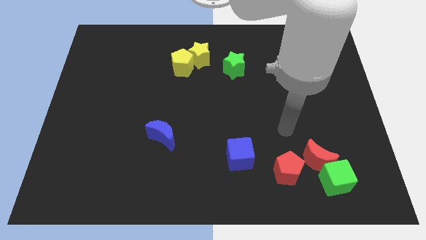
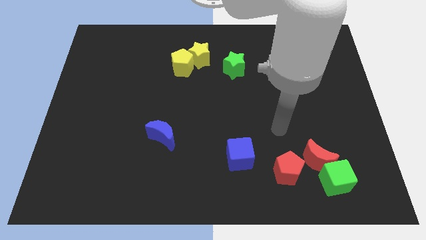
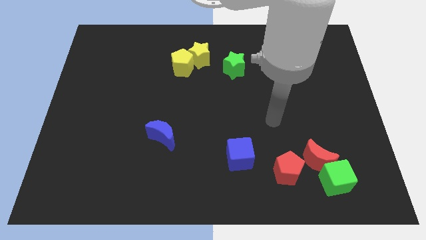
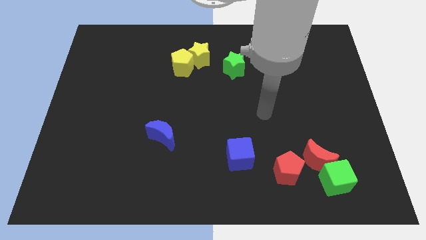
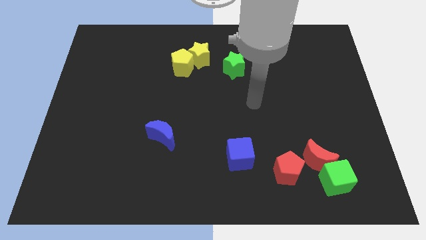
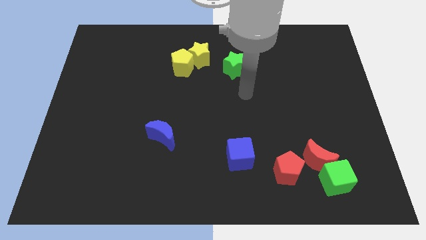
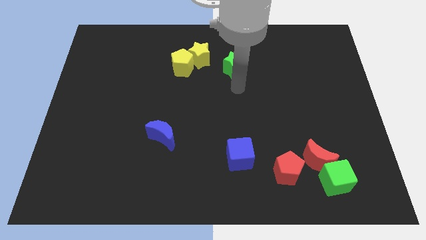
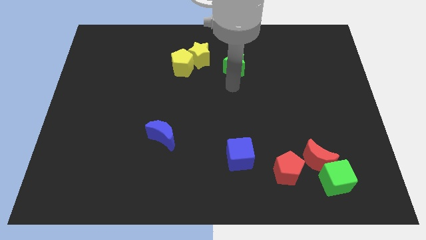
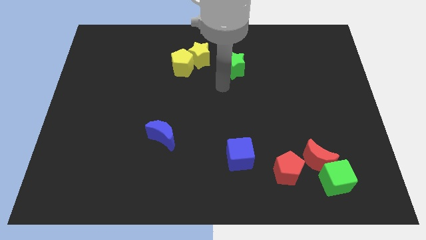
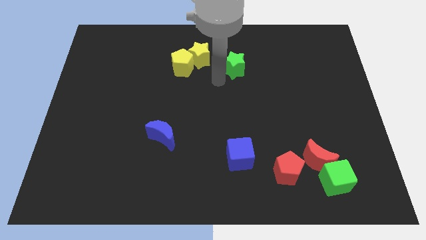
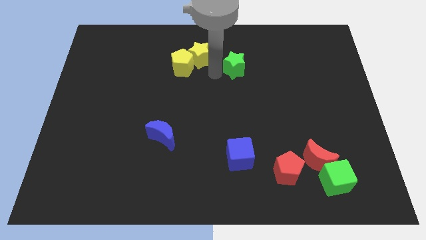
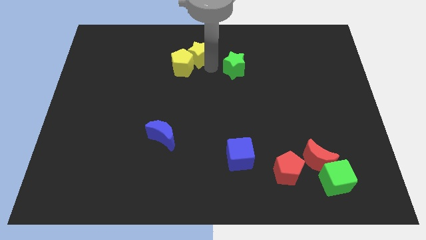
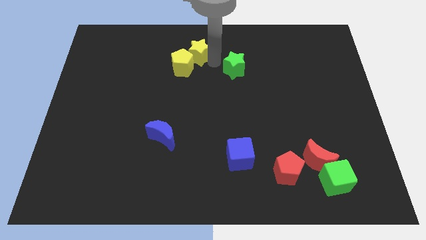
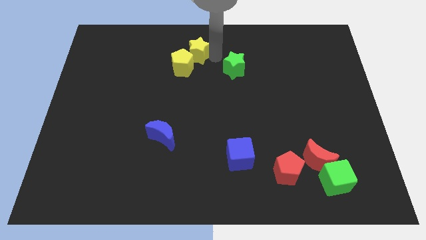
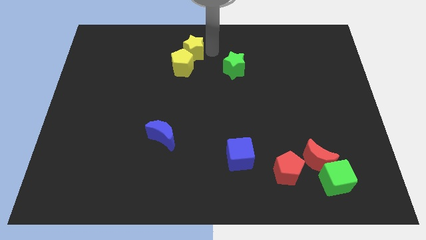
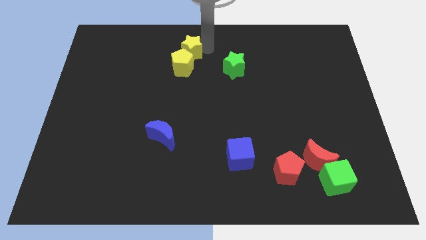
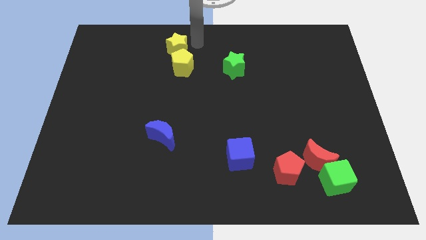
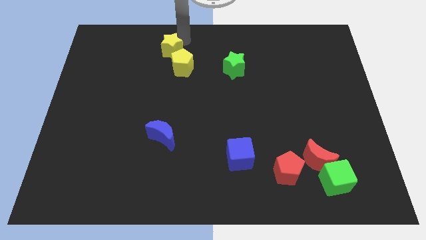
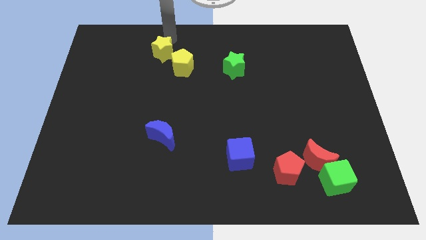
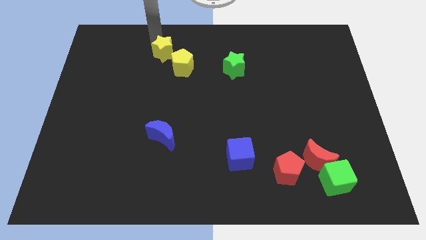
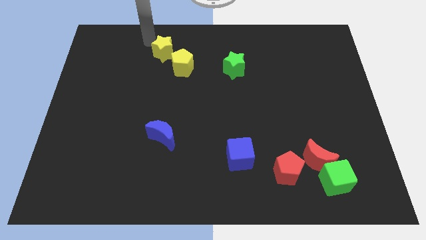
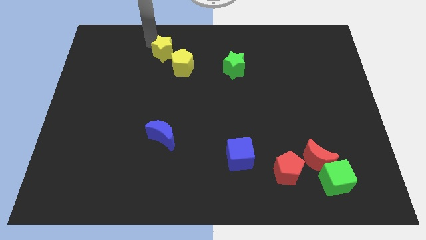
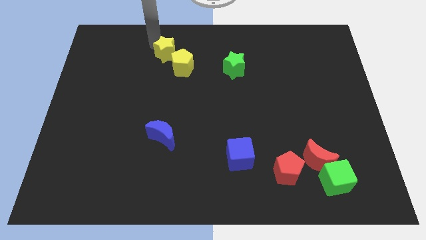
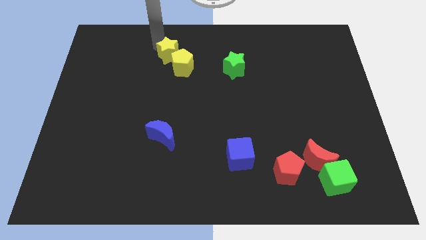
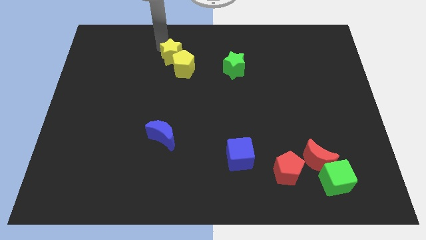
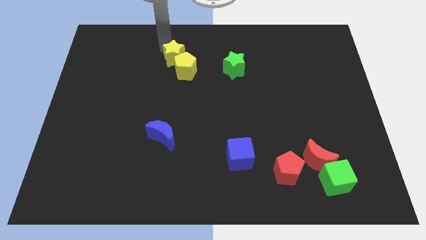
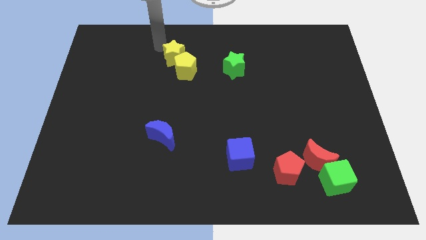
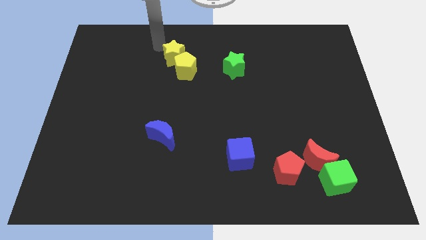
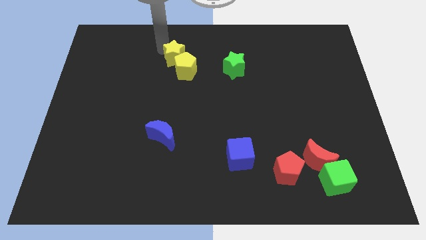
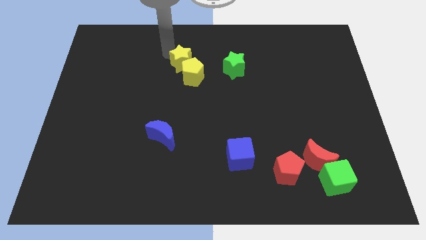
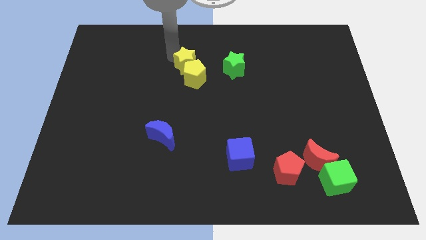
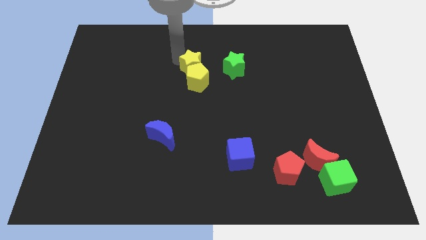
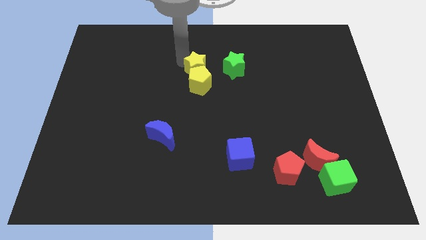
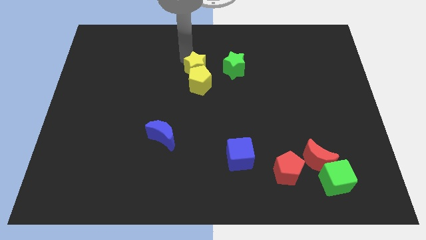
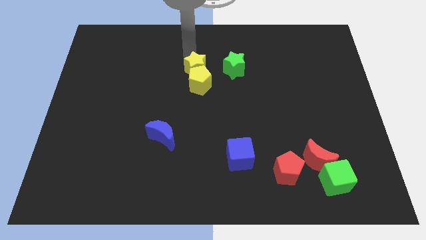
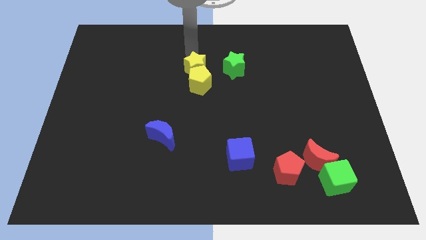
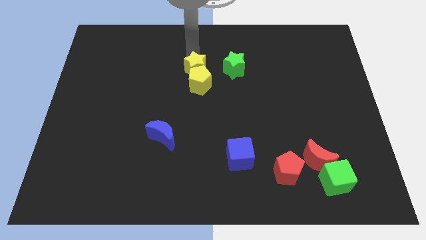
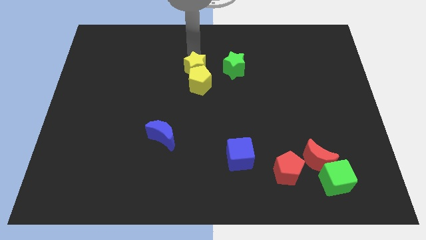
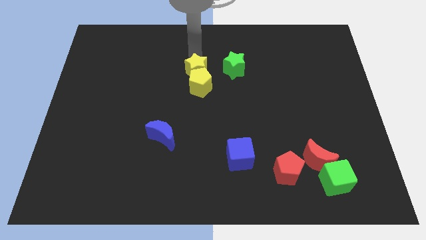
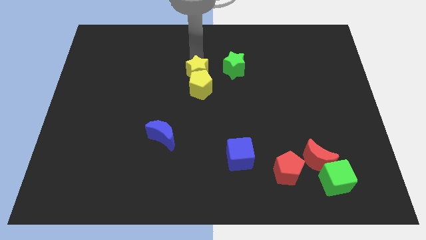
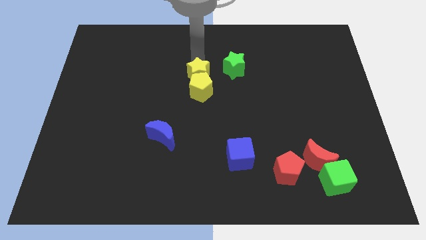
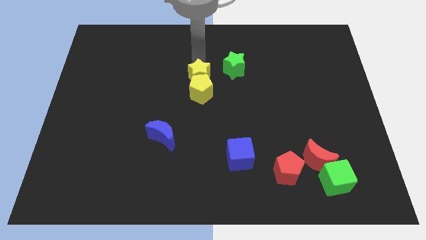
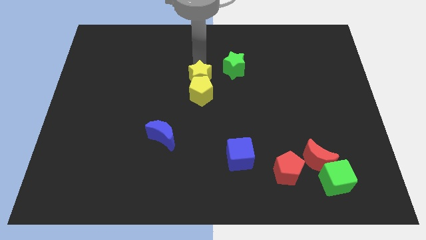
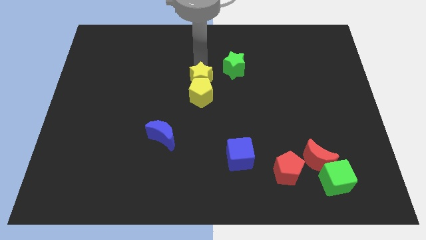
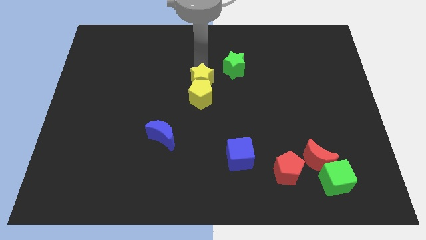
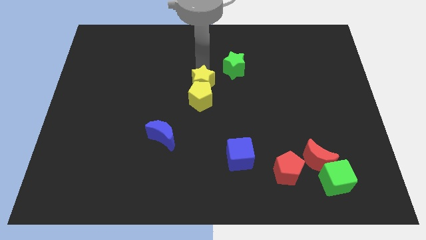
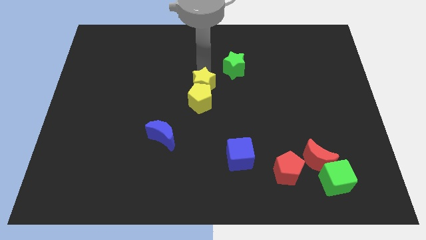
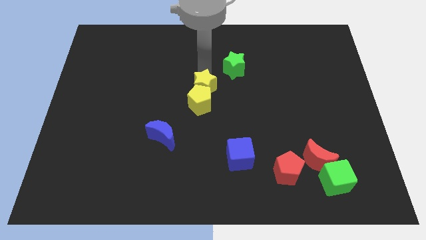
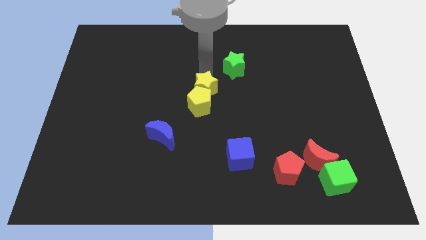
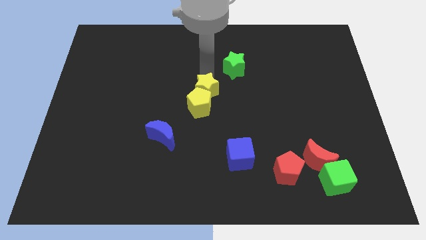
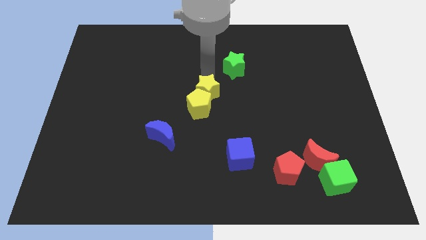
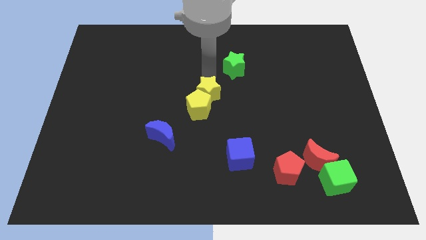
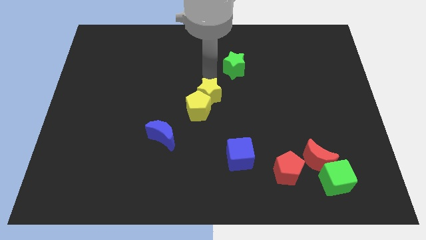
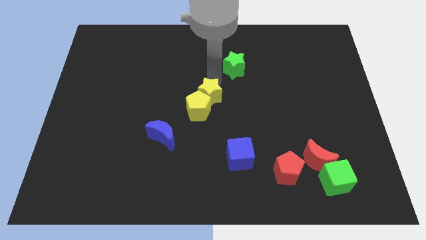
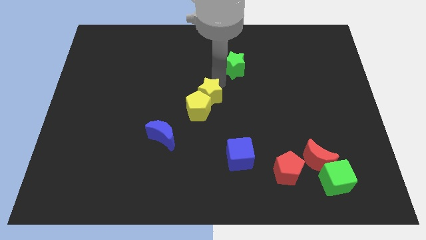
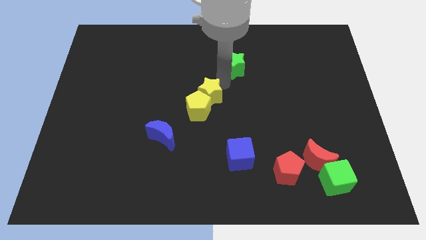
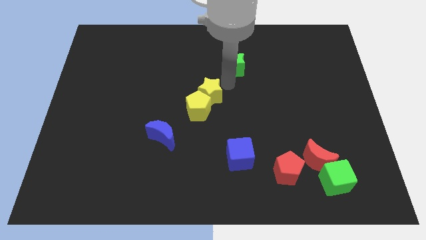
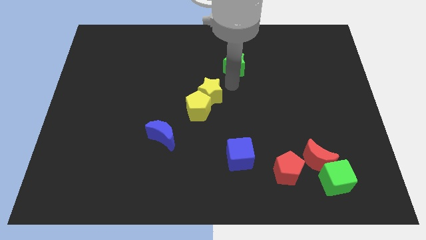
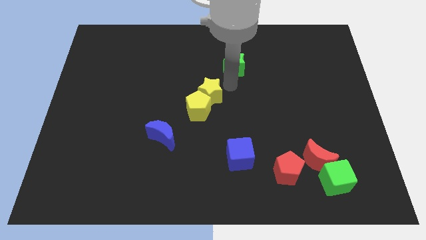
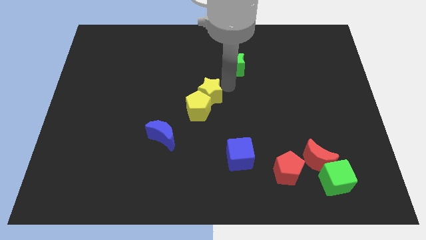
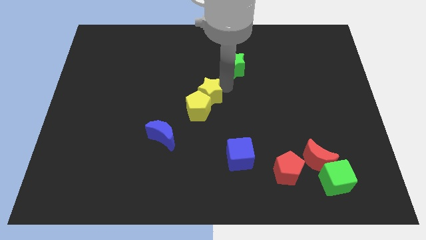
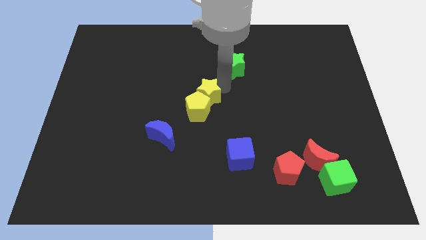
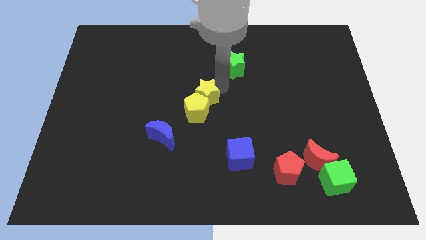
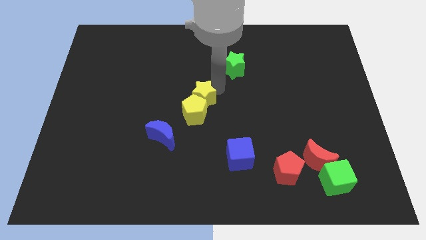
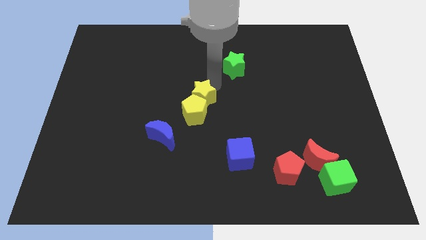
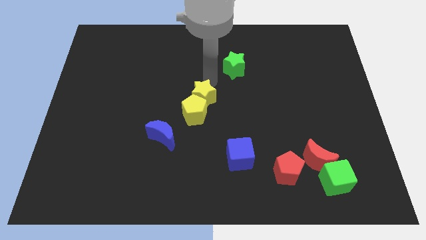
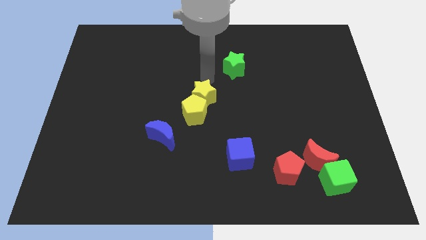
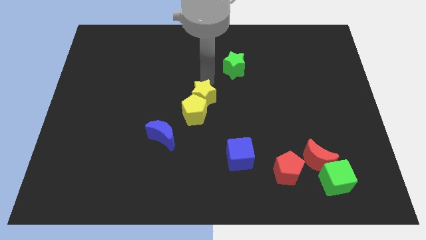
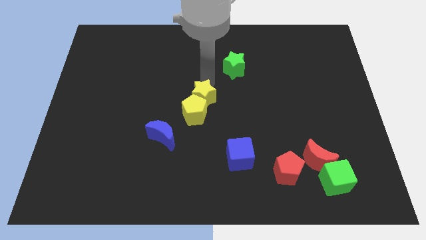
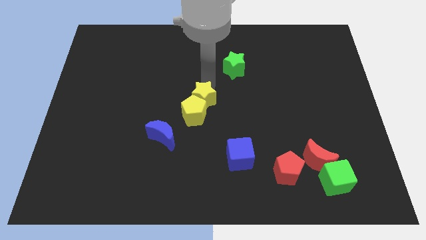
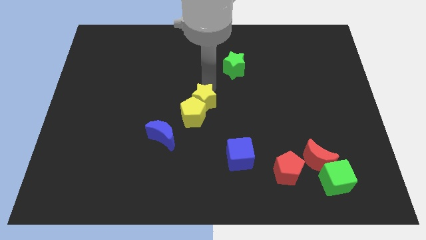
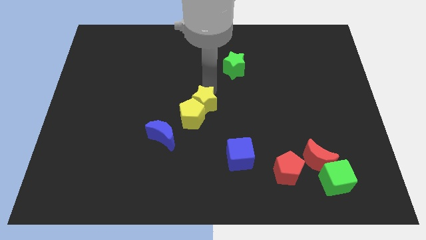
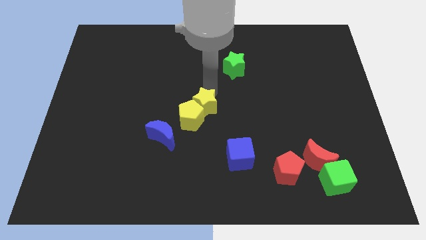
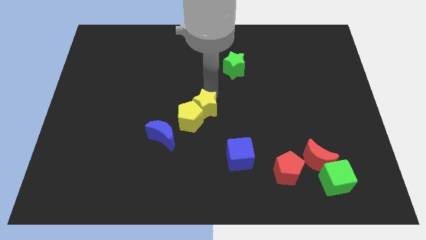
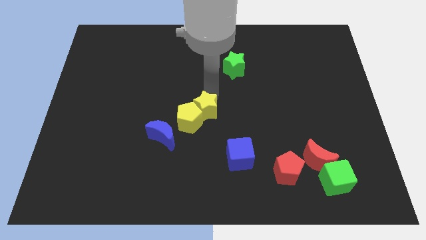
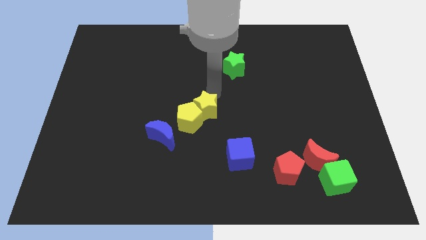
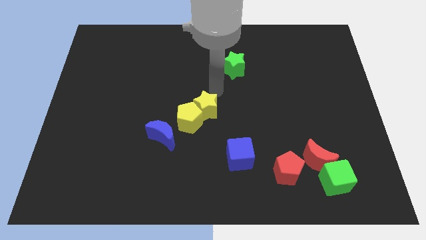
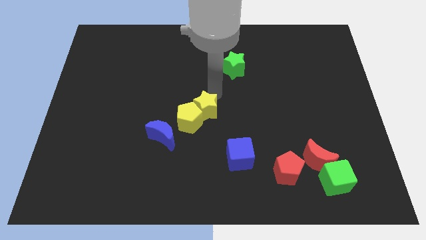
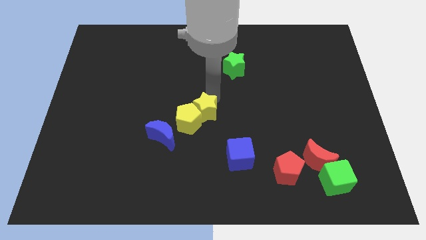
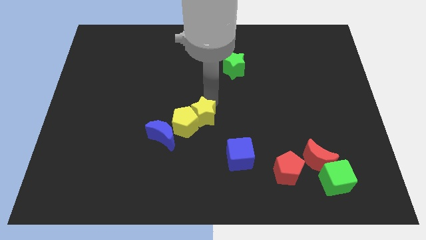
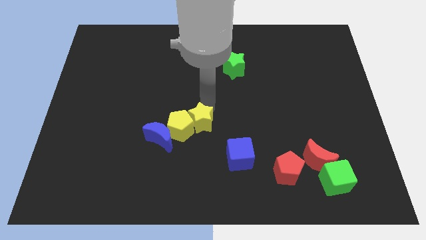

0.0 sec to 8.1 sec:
push the yellow star downwards
